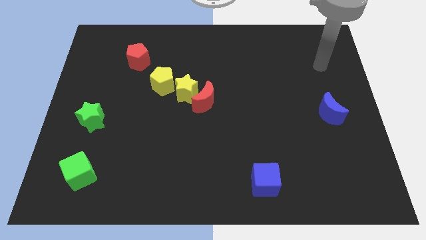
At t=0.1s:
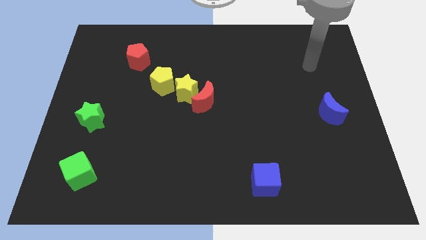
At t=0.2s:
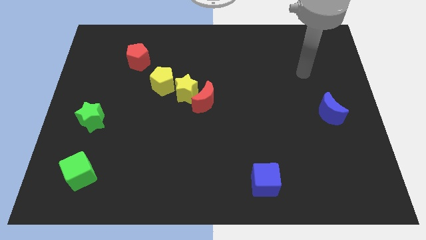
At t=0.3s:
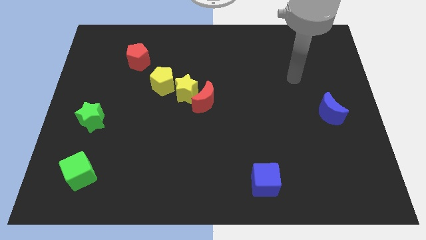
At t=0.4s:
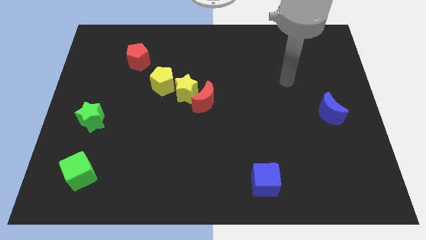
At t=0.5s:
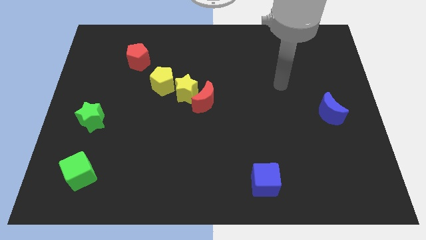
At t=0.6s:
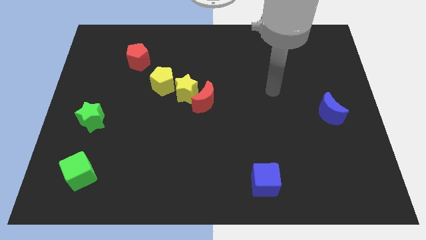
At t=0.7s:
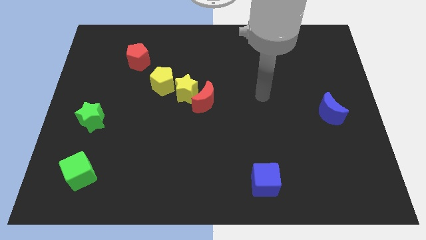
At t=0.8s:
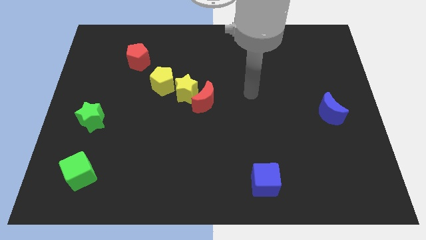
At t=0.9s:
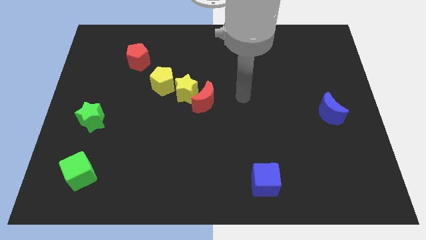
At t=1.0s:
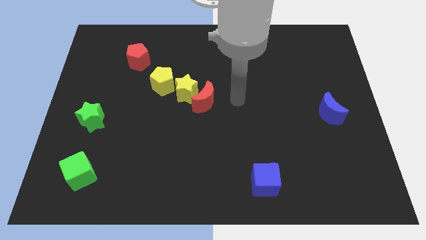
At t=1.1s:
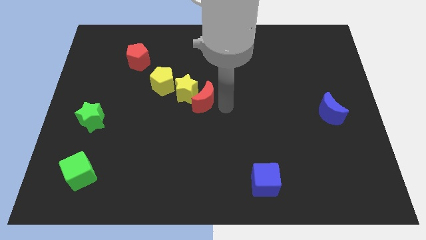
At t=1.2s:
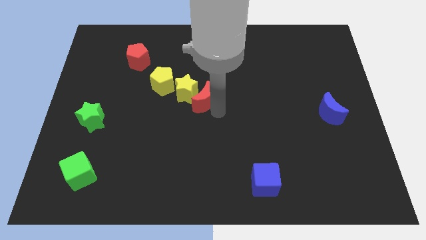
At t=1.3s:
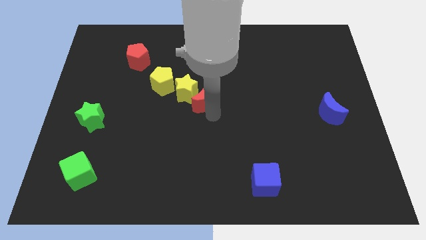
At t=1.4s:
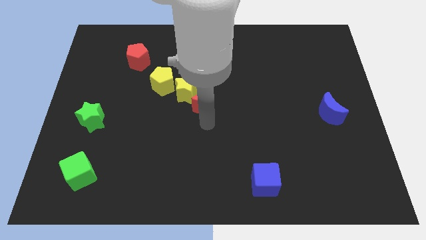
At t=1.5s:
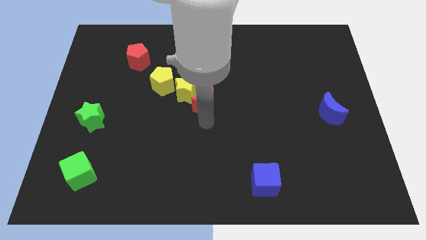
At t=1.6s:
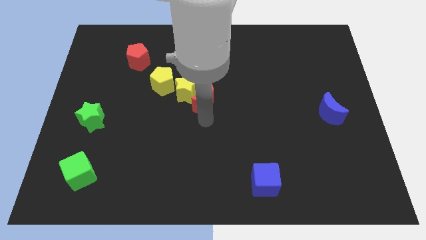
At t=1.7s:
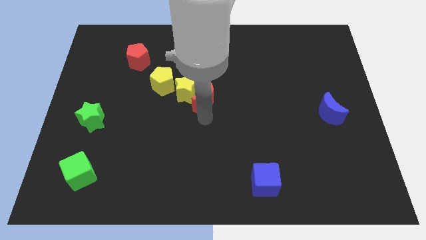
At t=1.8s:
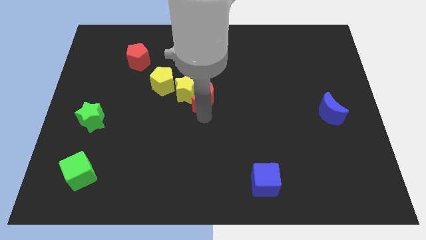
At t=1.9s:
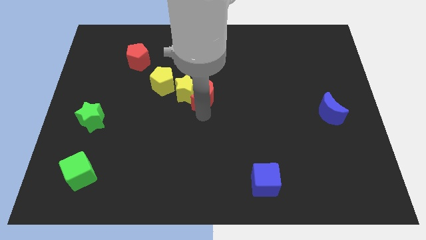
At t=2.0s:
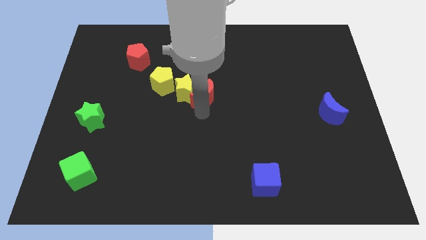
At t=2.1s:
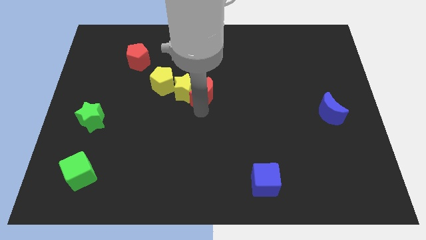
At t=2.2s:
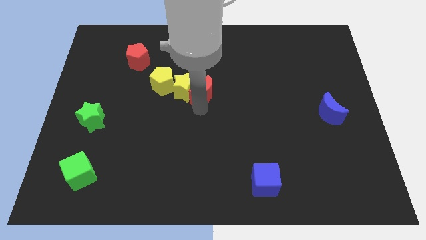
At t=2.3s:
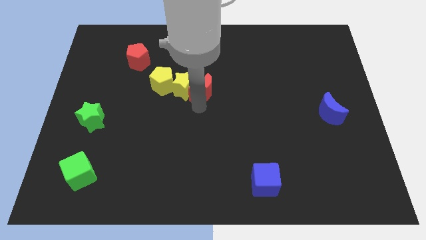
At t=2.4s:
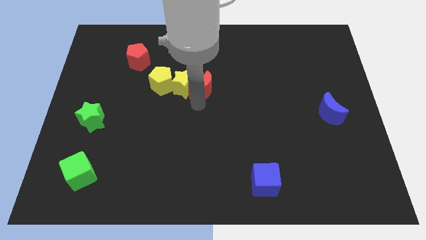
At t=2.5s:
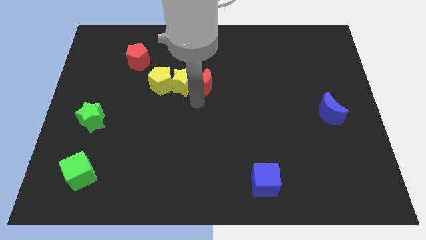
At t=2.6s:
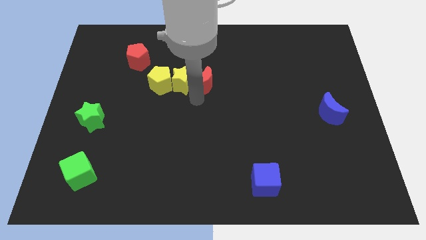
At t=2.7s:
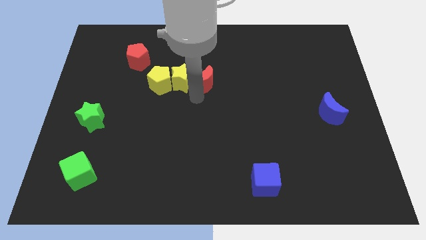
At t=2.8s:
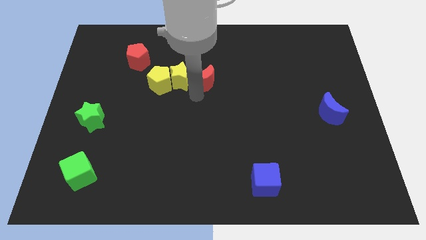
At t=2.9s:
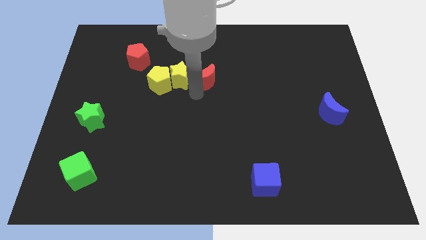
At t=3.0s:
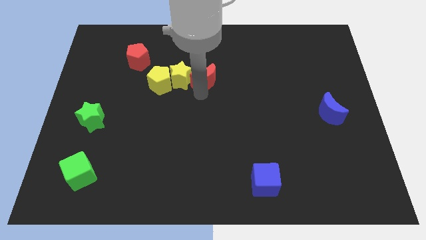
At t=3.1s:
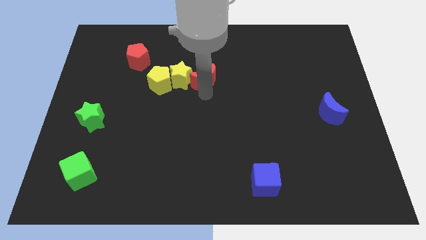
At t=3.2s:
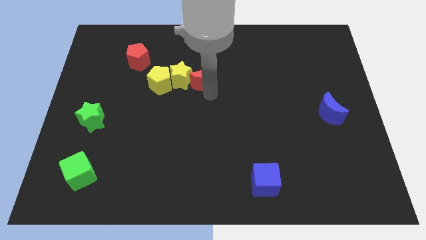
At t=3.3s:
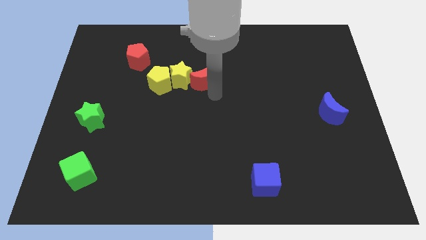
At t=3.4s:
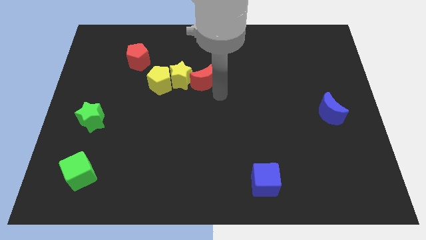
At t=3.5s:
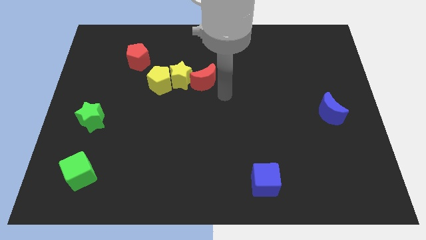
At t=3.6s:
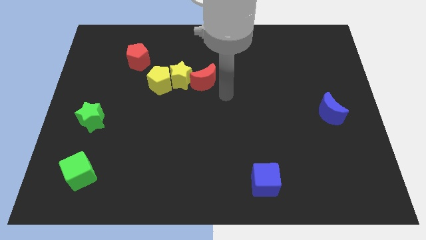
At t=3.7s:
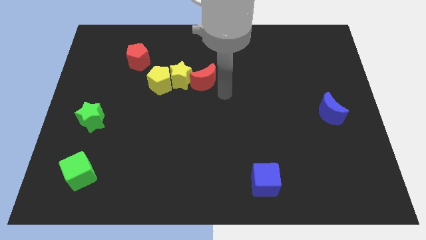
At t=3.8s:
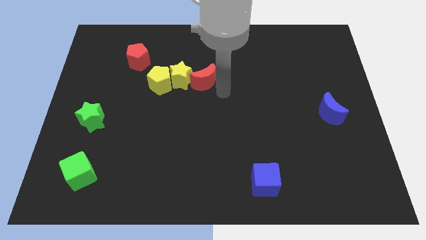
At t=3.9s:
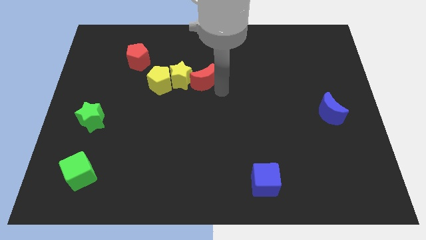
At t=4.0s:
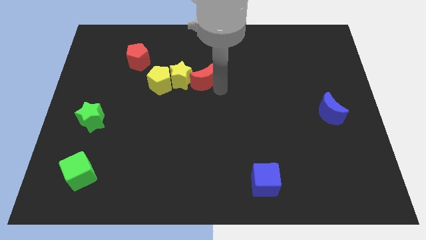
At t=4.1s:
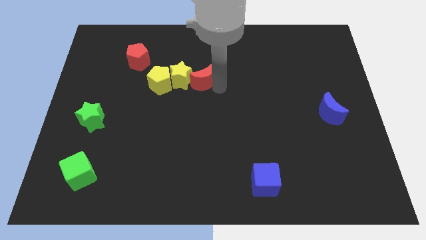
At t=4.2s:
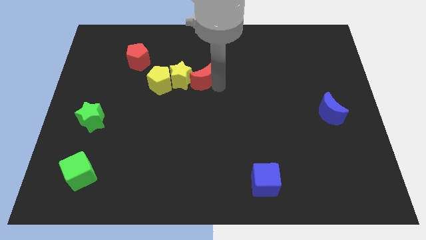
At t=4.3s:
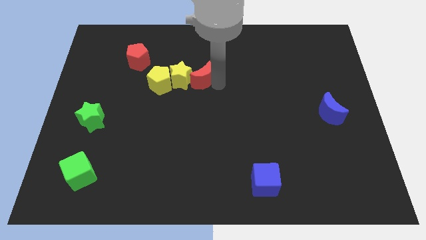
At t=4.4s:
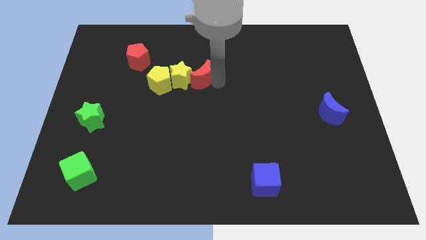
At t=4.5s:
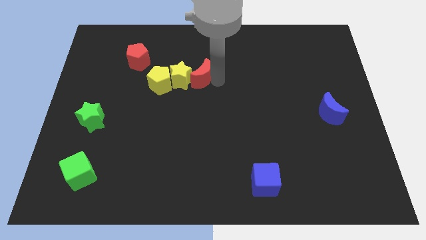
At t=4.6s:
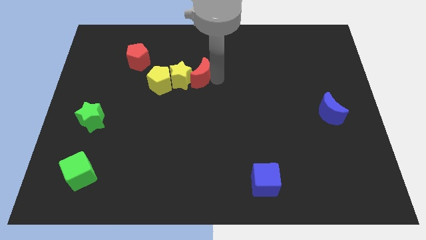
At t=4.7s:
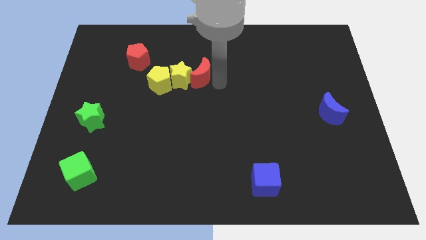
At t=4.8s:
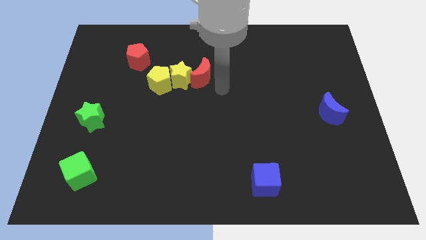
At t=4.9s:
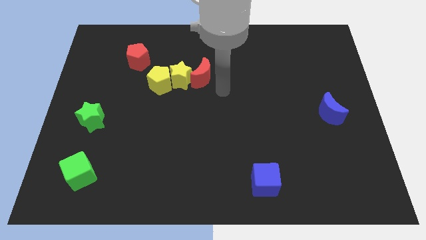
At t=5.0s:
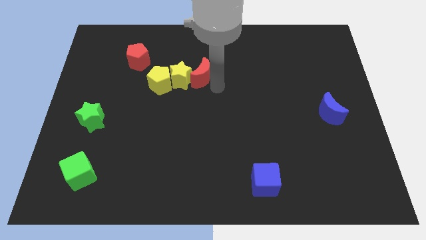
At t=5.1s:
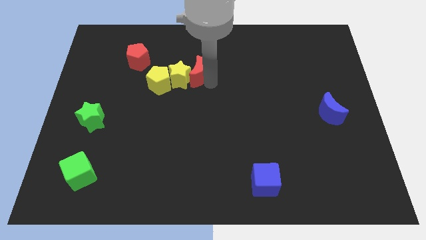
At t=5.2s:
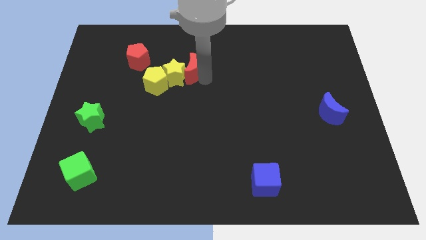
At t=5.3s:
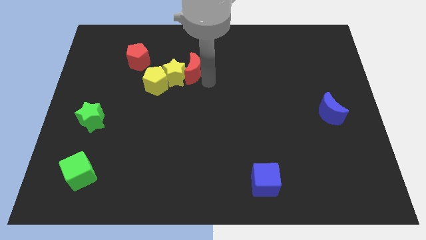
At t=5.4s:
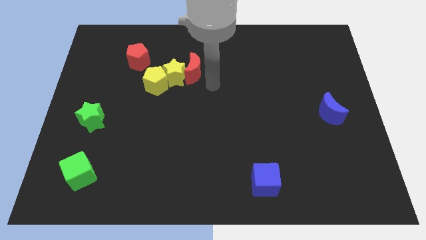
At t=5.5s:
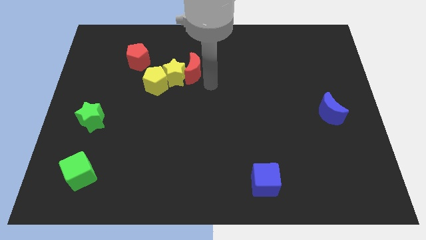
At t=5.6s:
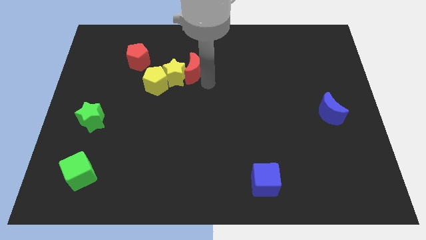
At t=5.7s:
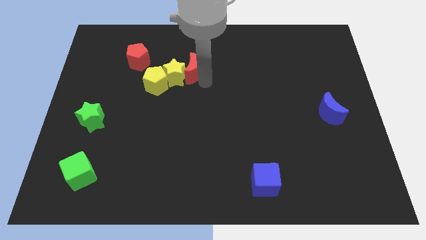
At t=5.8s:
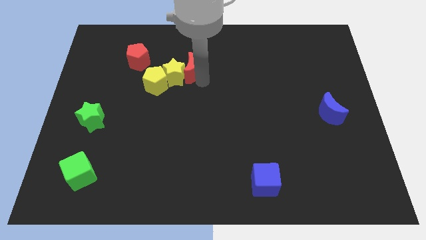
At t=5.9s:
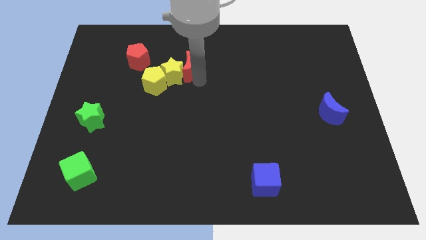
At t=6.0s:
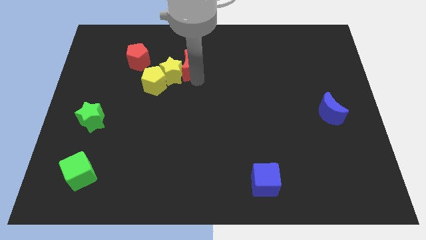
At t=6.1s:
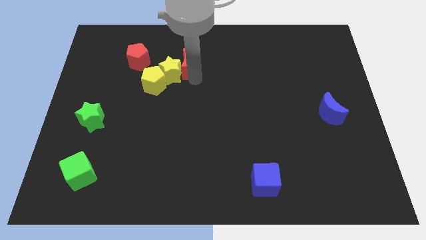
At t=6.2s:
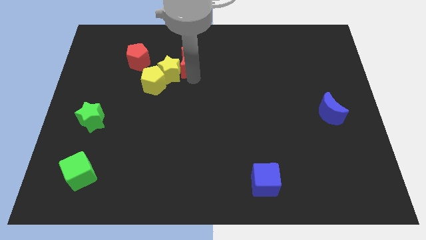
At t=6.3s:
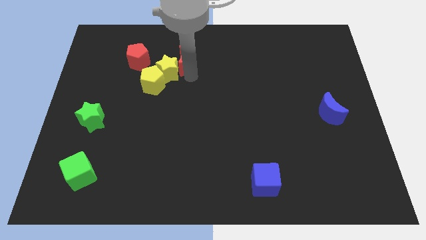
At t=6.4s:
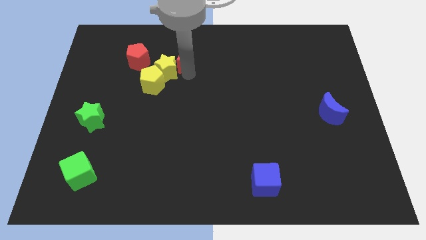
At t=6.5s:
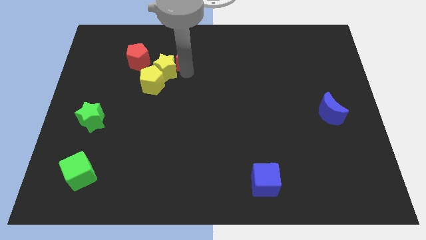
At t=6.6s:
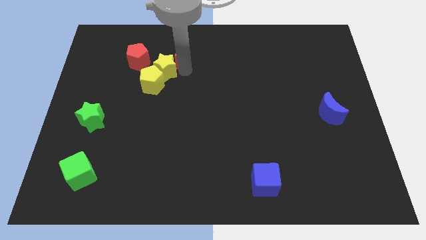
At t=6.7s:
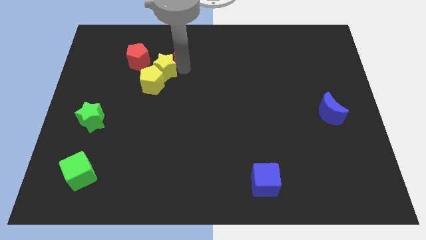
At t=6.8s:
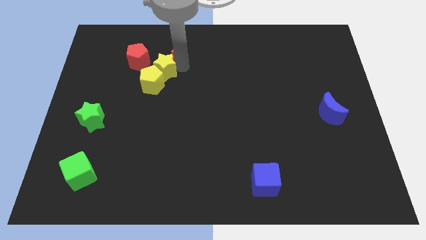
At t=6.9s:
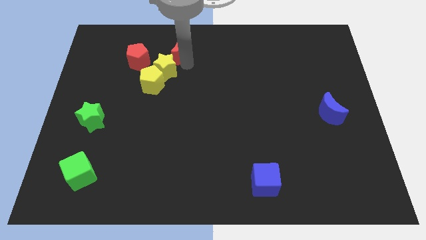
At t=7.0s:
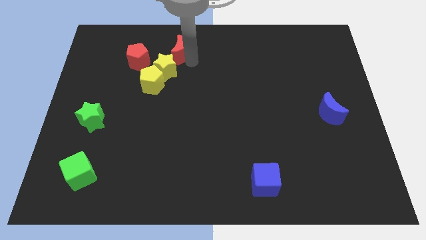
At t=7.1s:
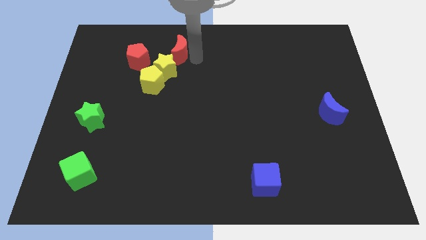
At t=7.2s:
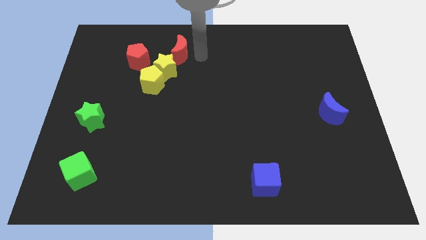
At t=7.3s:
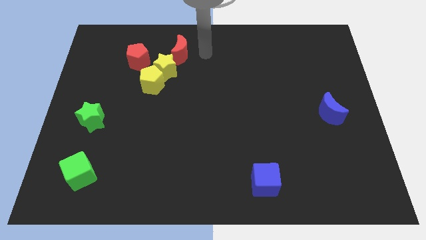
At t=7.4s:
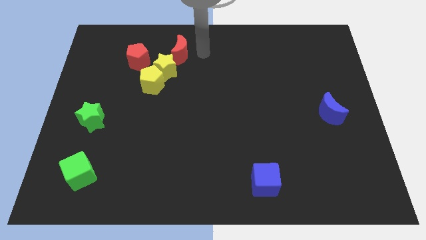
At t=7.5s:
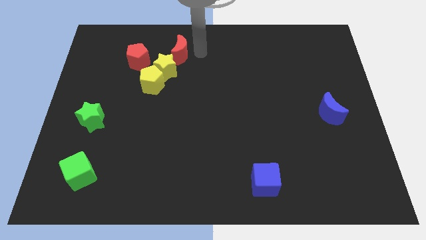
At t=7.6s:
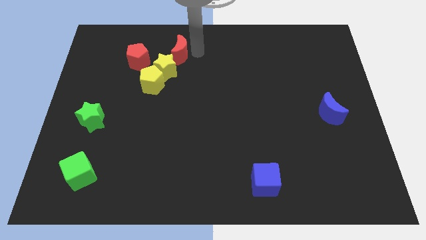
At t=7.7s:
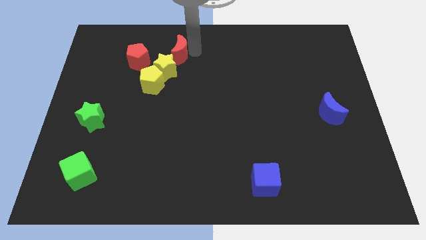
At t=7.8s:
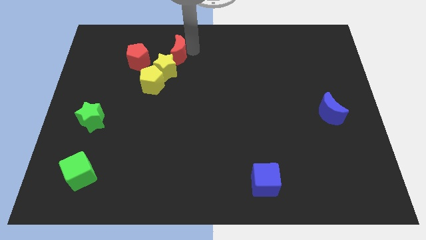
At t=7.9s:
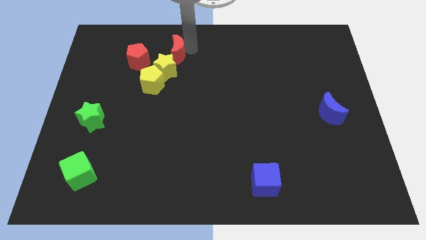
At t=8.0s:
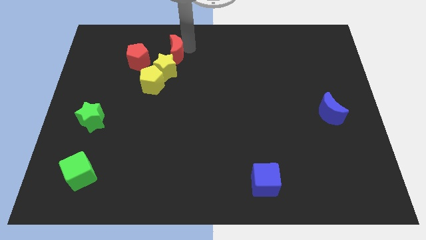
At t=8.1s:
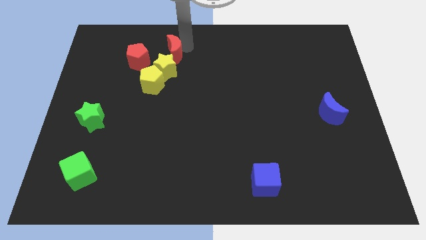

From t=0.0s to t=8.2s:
push the red moon to the top side of the yellow pentagon
